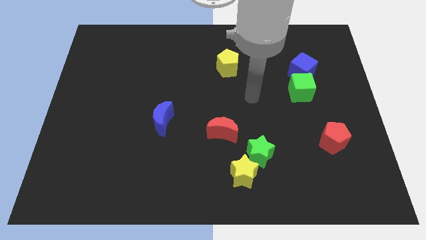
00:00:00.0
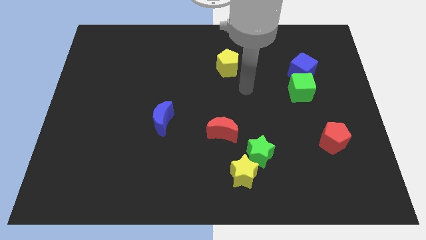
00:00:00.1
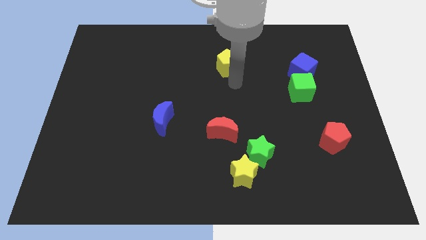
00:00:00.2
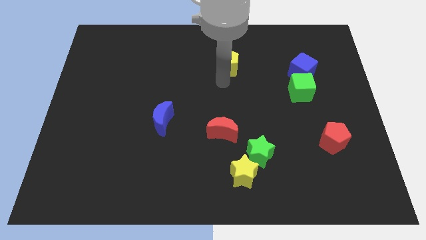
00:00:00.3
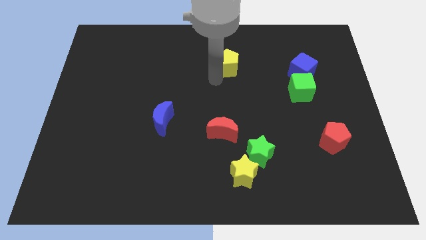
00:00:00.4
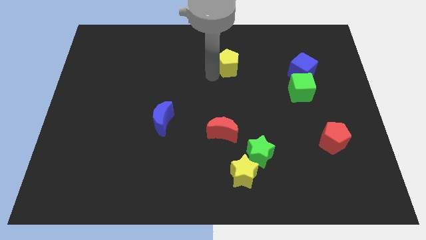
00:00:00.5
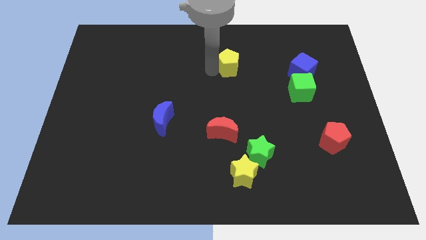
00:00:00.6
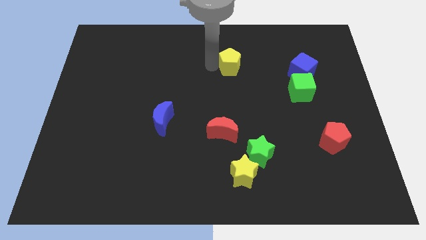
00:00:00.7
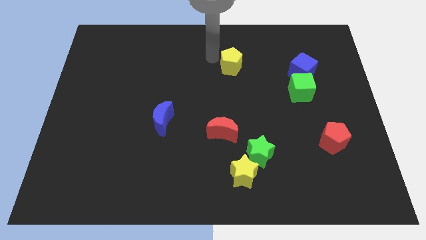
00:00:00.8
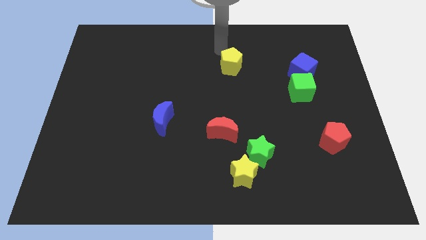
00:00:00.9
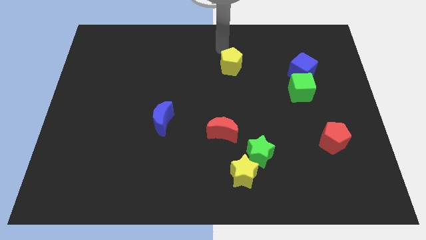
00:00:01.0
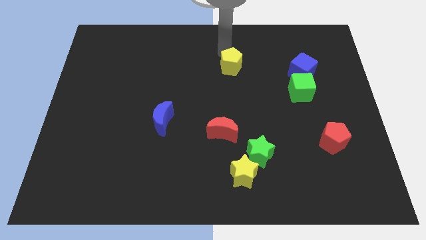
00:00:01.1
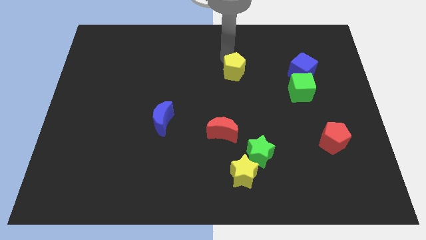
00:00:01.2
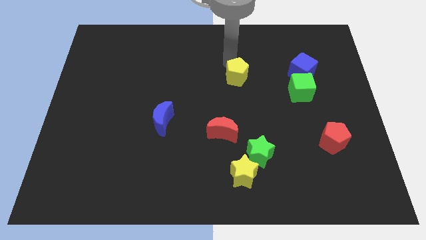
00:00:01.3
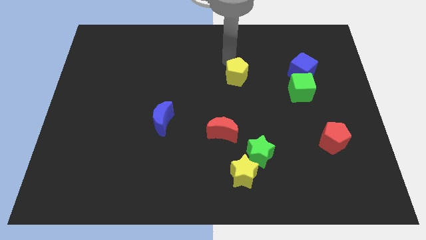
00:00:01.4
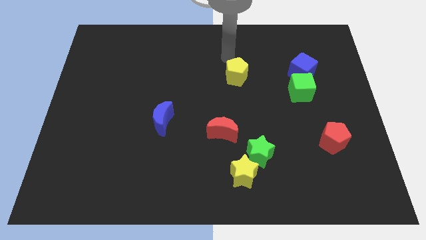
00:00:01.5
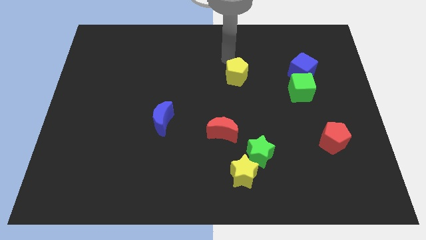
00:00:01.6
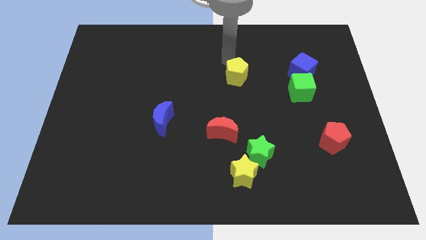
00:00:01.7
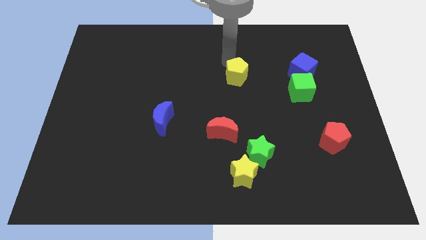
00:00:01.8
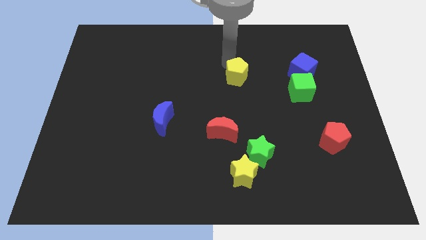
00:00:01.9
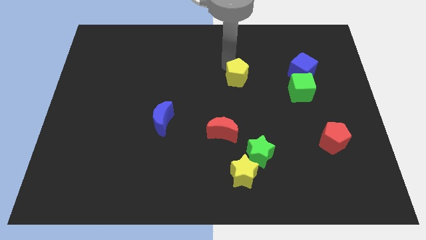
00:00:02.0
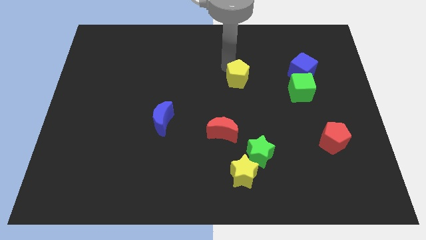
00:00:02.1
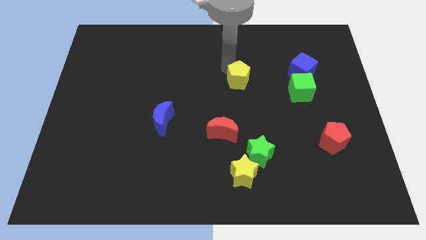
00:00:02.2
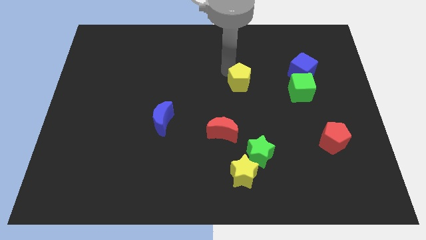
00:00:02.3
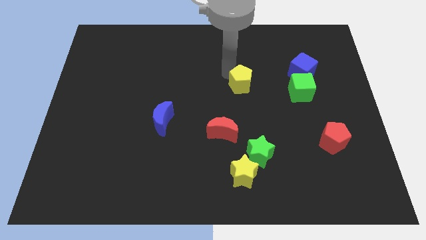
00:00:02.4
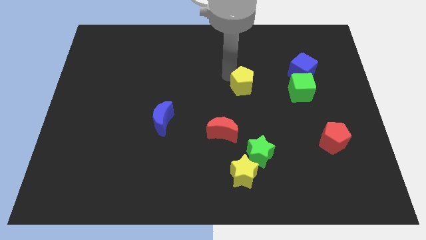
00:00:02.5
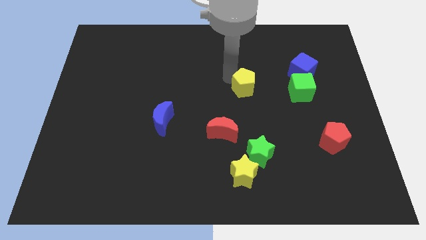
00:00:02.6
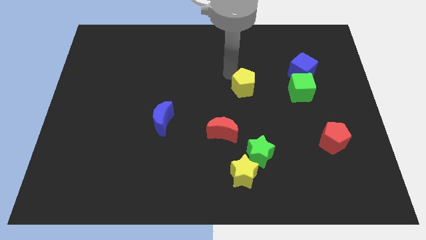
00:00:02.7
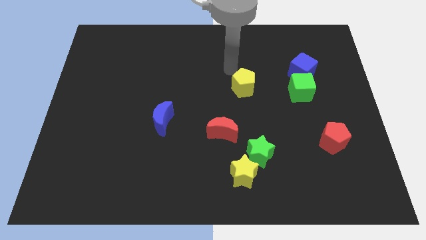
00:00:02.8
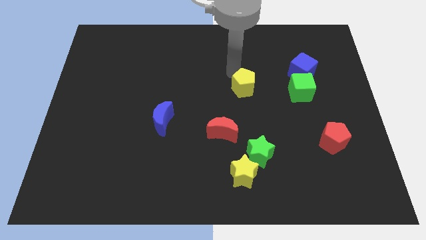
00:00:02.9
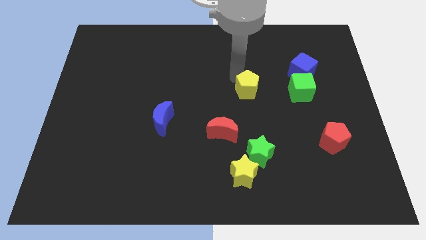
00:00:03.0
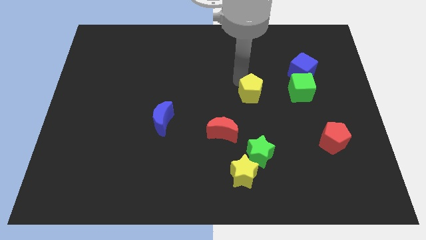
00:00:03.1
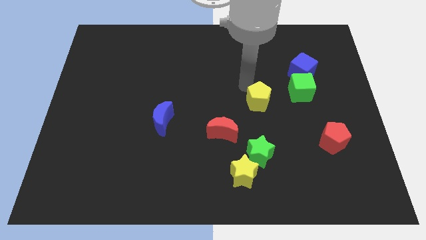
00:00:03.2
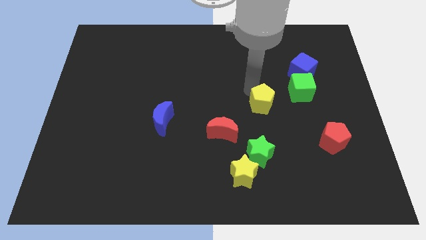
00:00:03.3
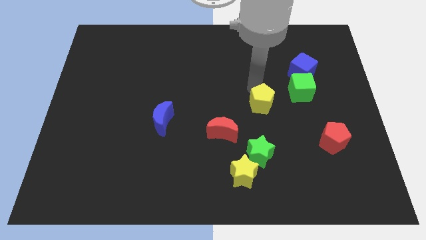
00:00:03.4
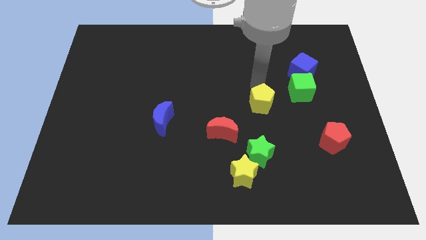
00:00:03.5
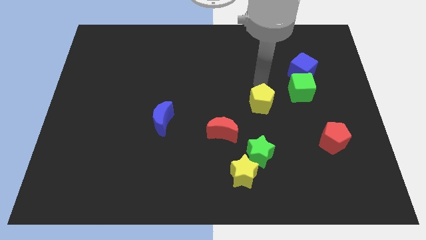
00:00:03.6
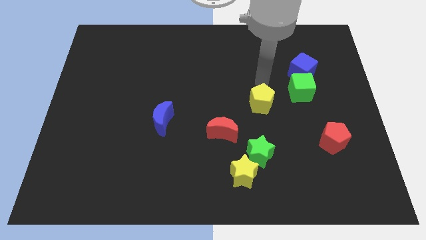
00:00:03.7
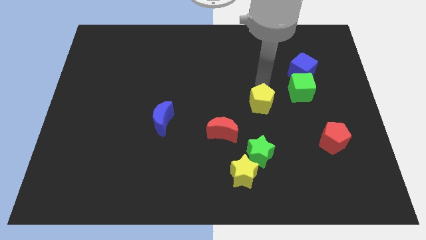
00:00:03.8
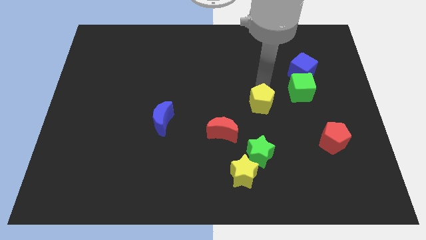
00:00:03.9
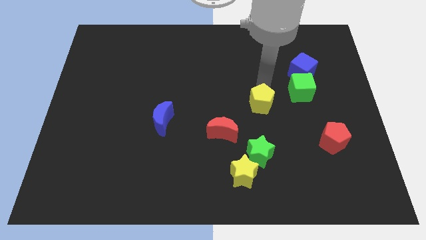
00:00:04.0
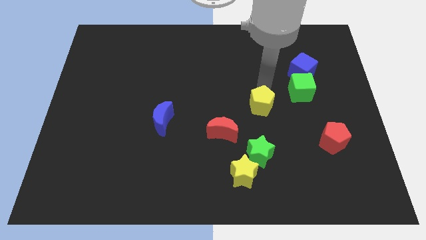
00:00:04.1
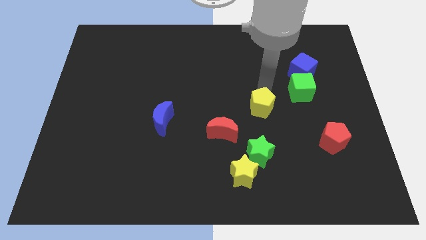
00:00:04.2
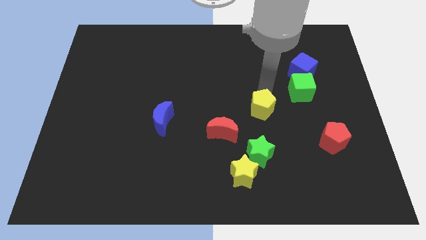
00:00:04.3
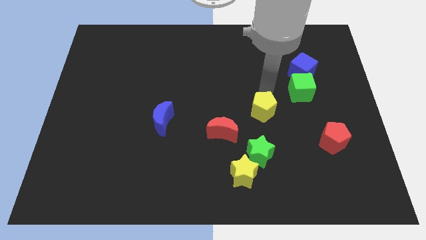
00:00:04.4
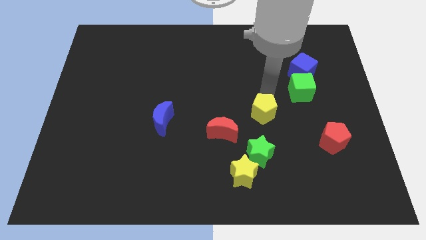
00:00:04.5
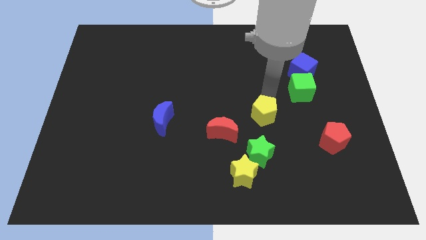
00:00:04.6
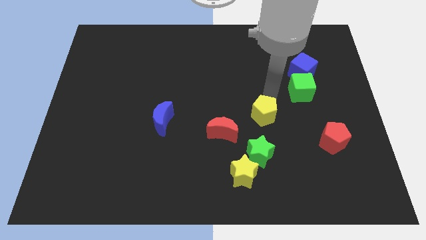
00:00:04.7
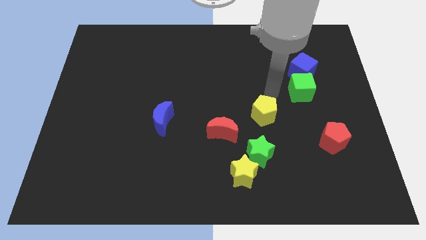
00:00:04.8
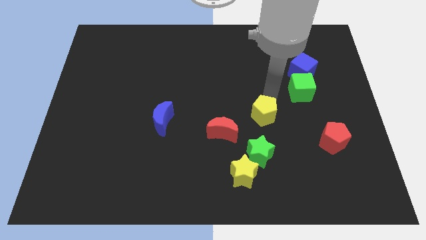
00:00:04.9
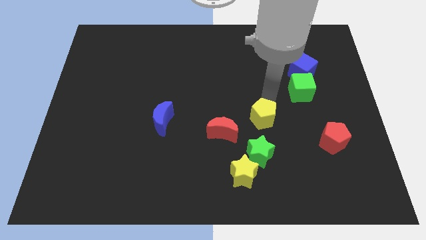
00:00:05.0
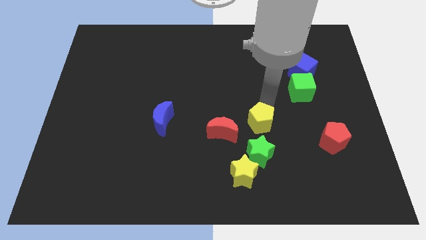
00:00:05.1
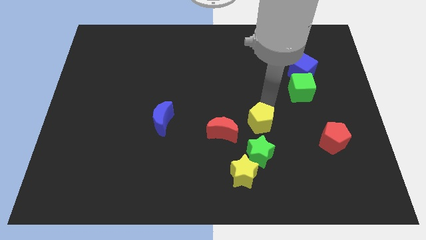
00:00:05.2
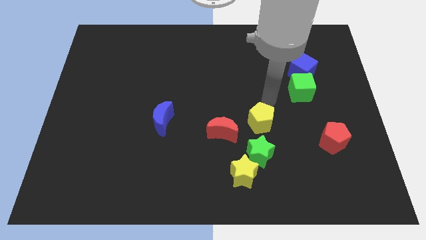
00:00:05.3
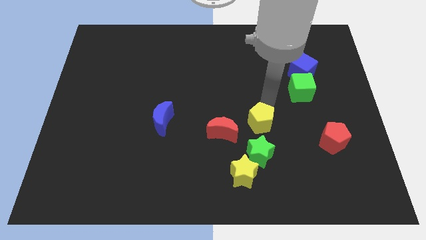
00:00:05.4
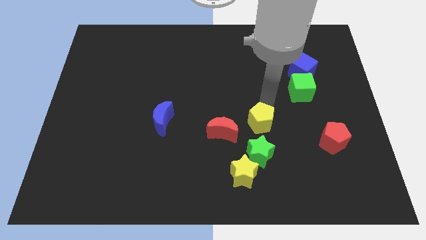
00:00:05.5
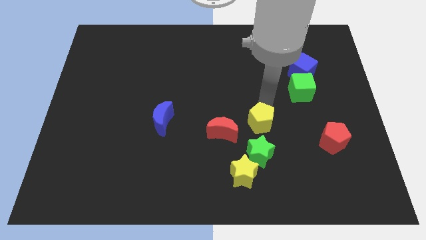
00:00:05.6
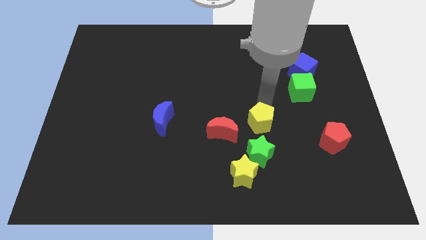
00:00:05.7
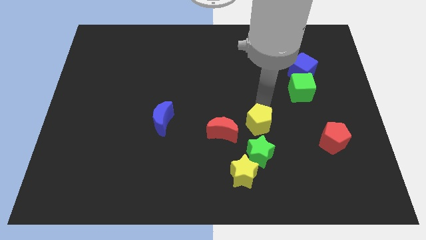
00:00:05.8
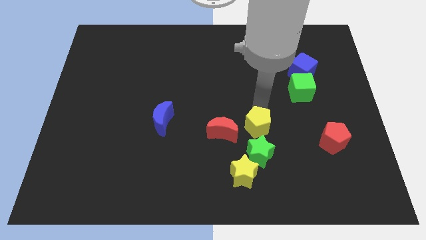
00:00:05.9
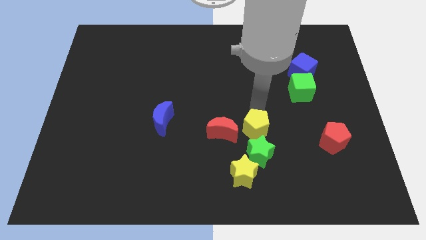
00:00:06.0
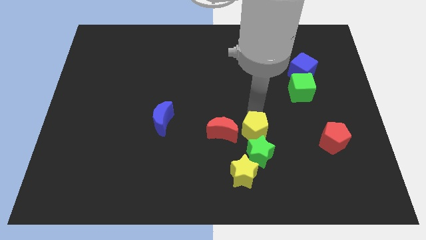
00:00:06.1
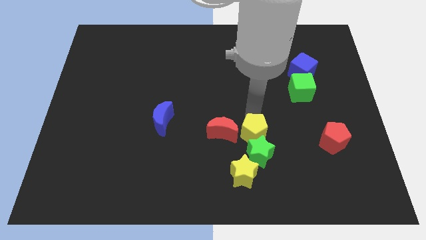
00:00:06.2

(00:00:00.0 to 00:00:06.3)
move the yellow pentagon towards the green star

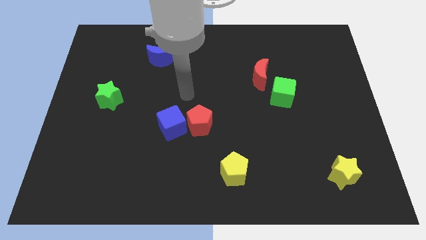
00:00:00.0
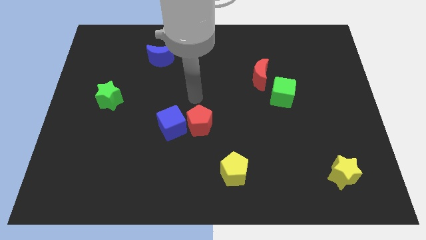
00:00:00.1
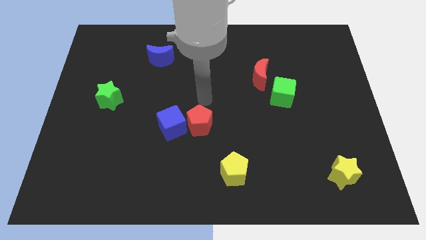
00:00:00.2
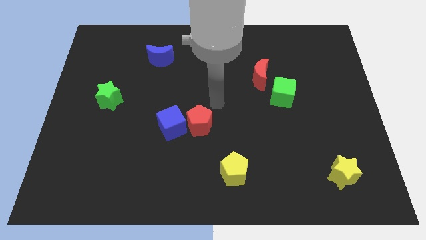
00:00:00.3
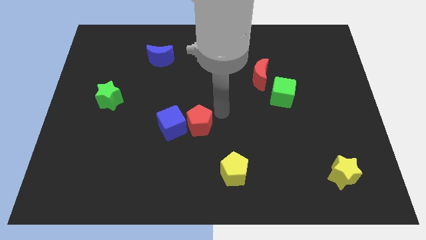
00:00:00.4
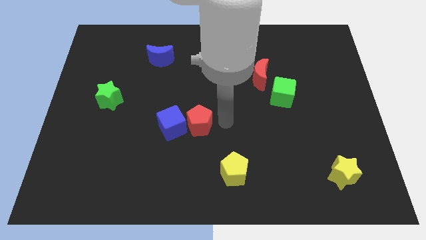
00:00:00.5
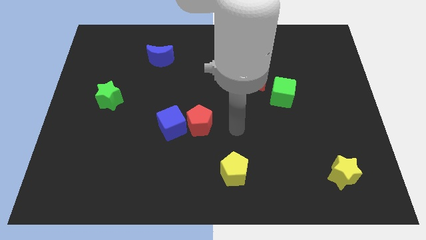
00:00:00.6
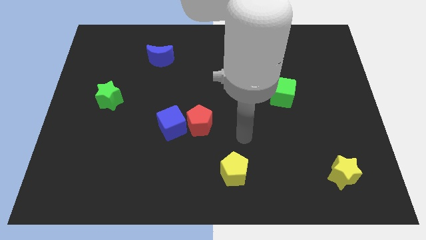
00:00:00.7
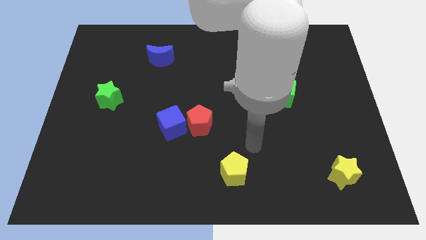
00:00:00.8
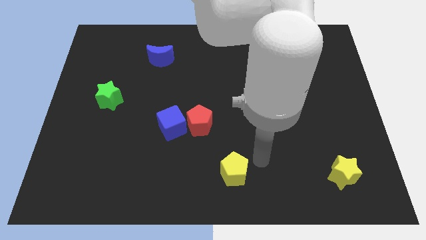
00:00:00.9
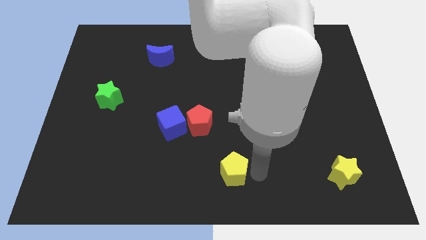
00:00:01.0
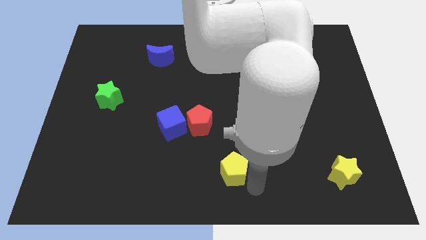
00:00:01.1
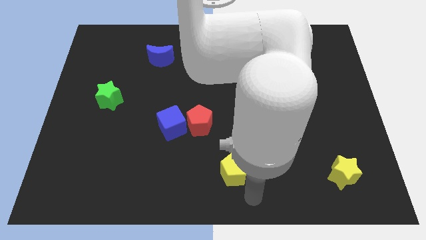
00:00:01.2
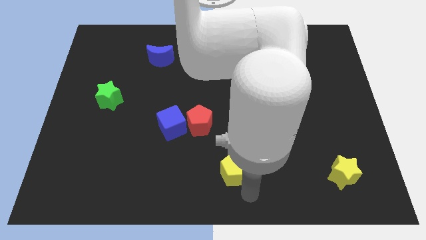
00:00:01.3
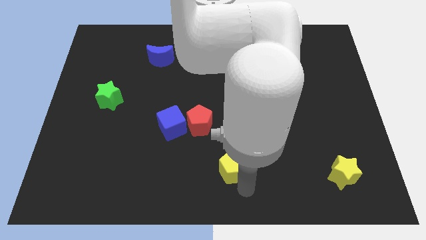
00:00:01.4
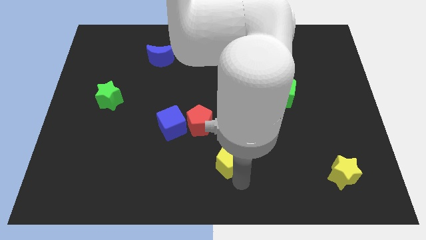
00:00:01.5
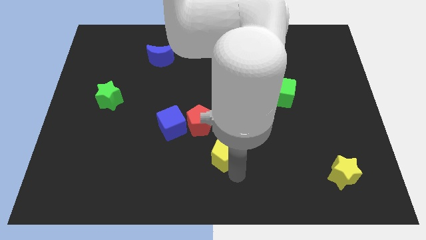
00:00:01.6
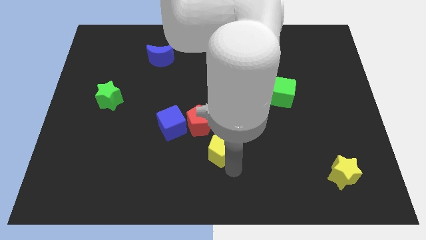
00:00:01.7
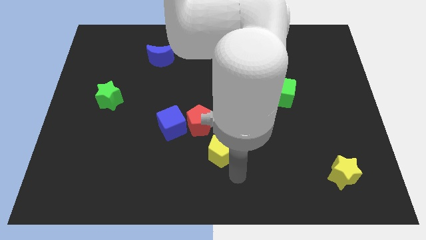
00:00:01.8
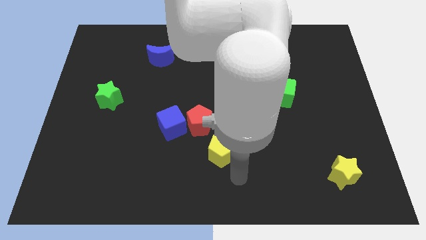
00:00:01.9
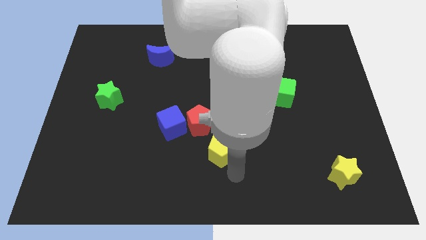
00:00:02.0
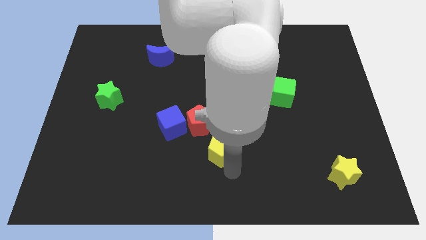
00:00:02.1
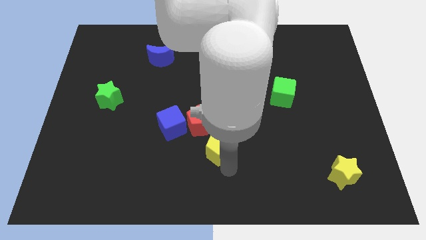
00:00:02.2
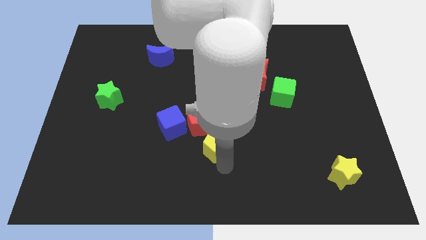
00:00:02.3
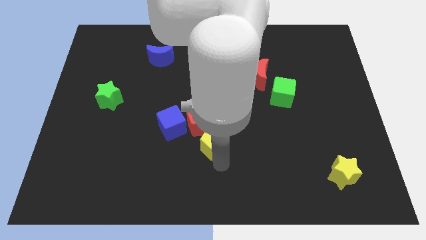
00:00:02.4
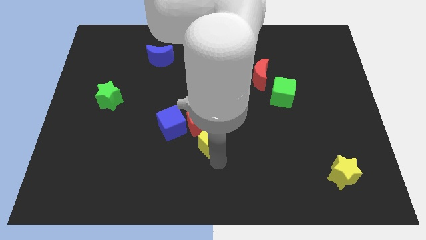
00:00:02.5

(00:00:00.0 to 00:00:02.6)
move the yellow pentagon to the red pentagon
